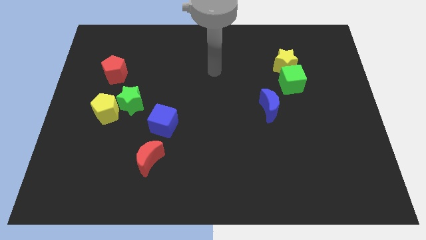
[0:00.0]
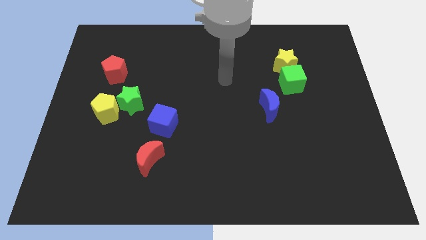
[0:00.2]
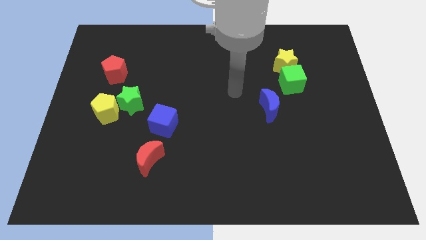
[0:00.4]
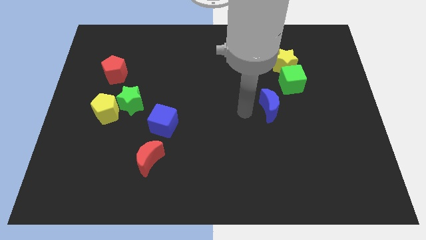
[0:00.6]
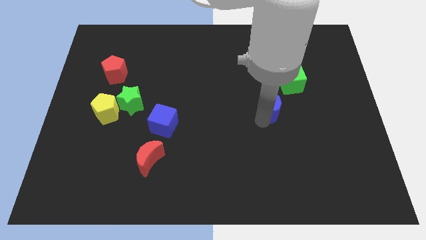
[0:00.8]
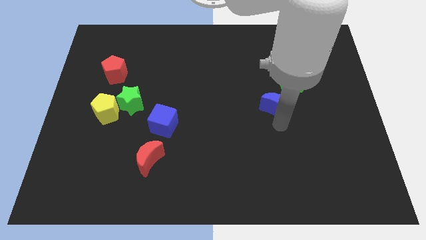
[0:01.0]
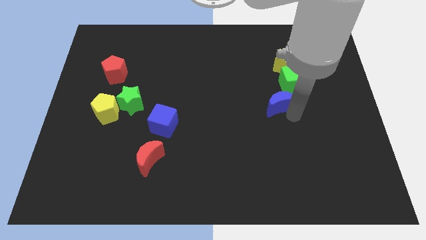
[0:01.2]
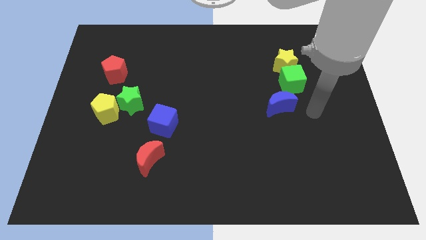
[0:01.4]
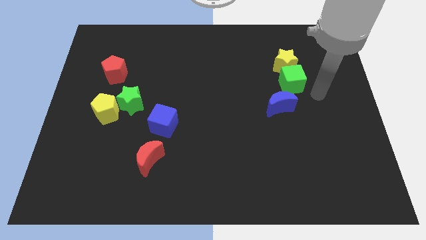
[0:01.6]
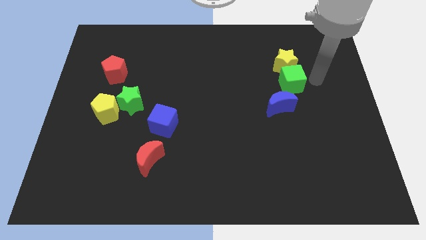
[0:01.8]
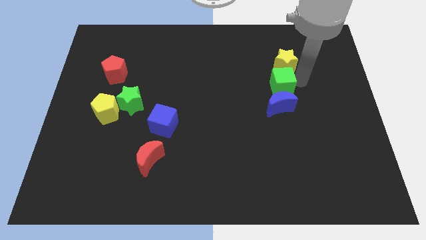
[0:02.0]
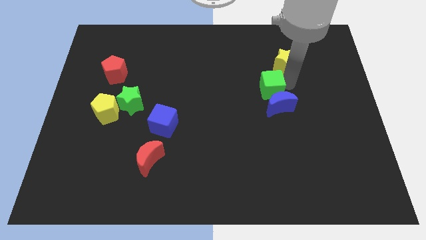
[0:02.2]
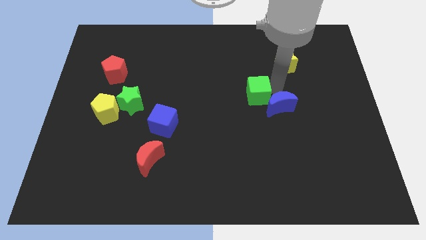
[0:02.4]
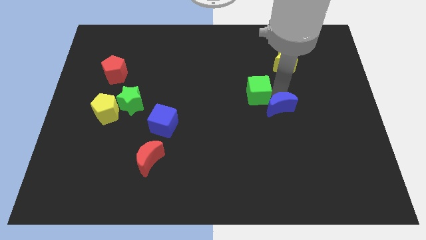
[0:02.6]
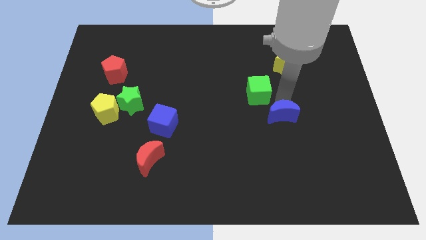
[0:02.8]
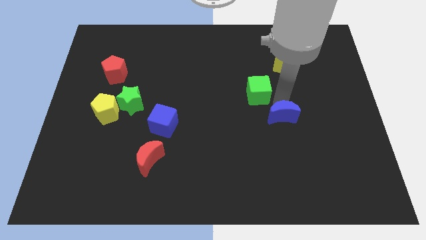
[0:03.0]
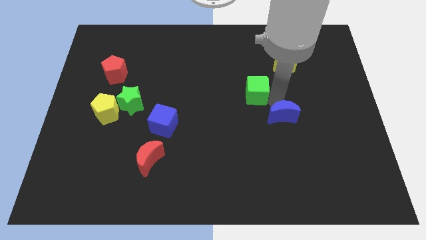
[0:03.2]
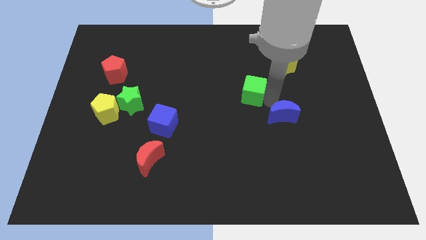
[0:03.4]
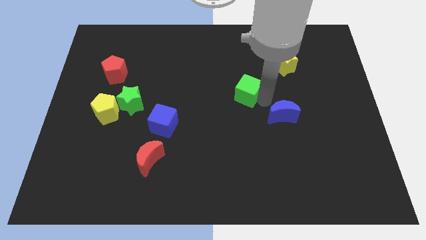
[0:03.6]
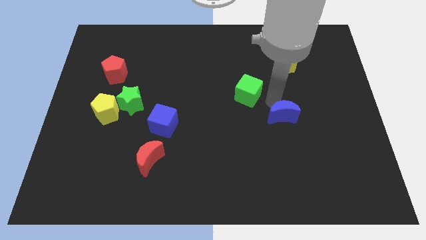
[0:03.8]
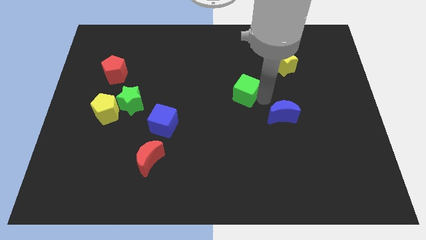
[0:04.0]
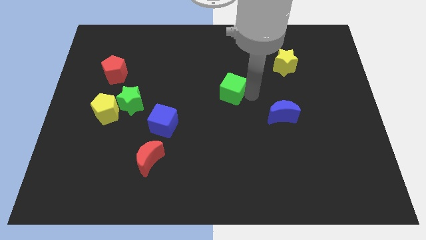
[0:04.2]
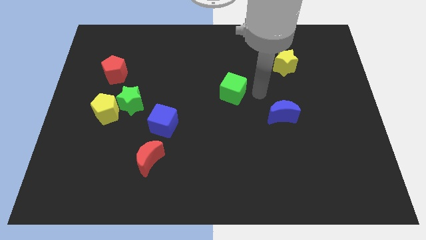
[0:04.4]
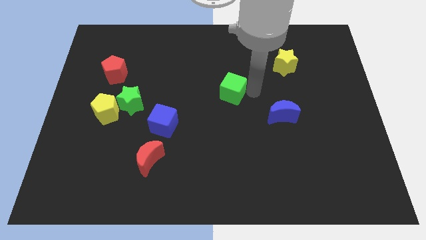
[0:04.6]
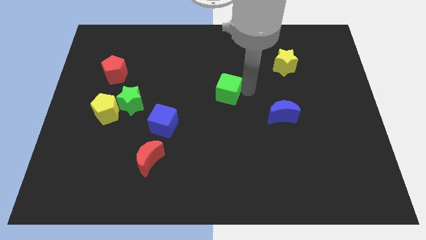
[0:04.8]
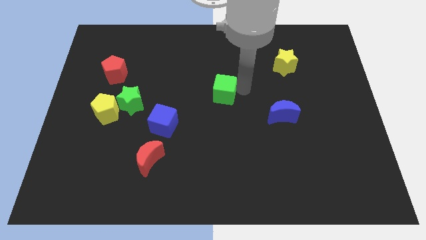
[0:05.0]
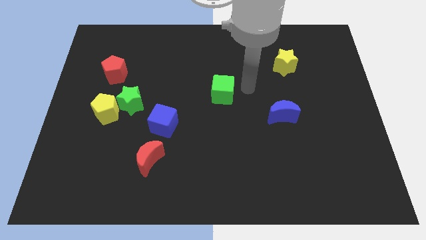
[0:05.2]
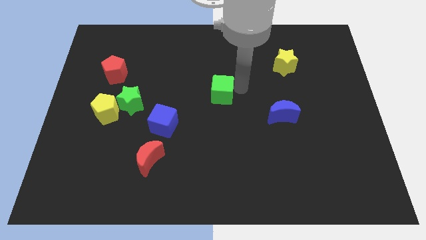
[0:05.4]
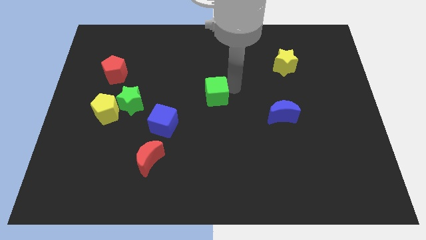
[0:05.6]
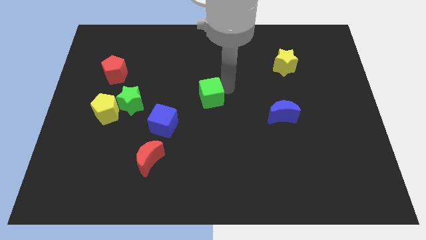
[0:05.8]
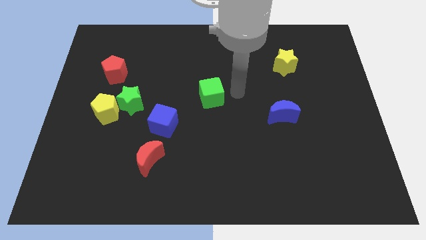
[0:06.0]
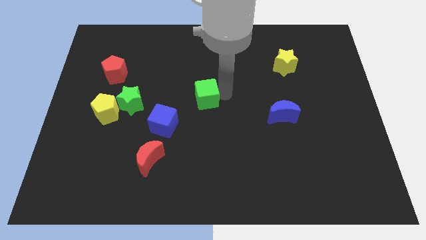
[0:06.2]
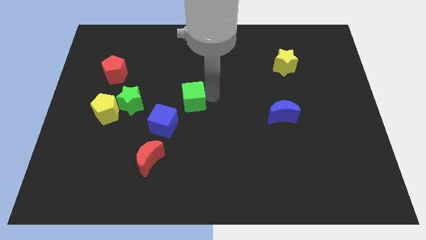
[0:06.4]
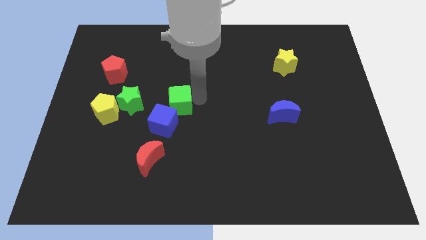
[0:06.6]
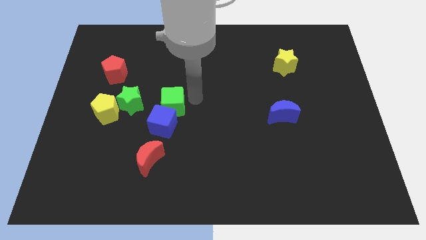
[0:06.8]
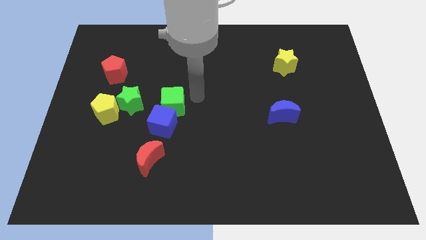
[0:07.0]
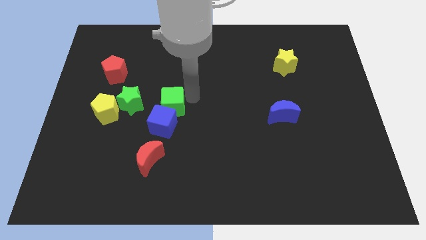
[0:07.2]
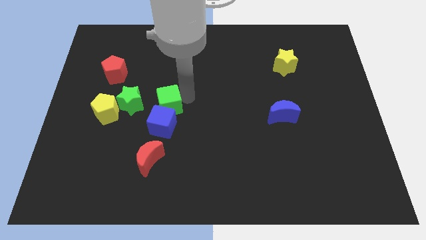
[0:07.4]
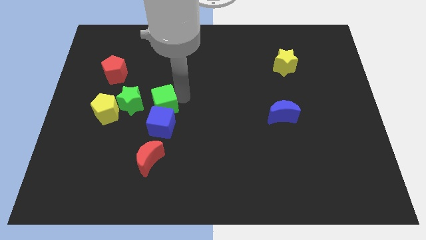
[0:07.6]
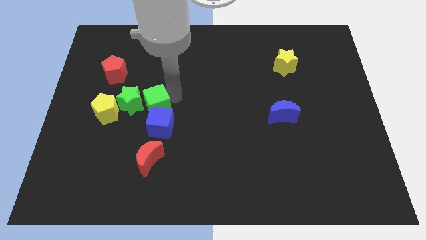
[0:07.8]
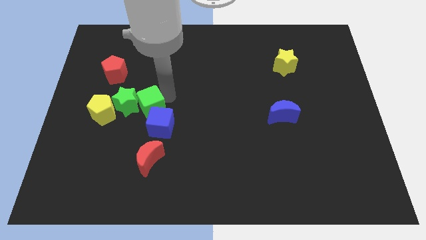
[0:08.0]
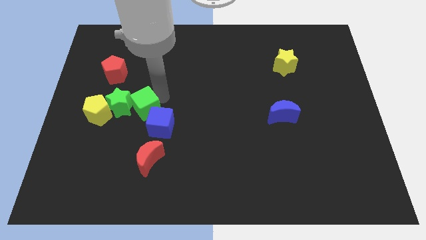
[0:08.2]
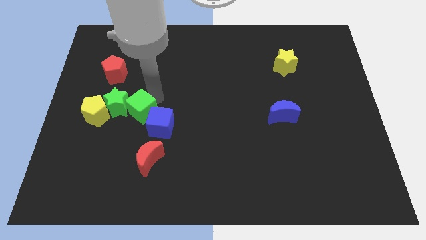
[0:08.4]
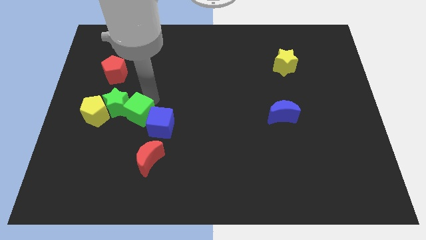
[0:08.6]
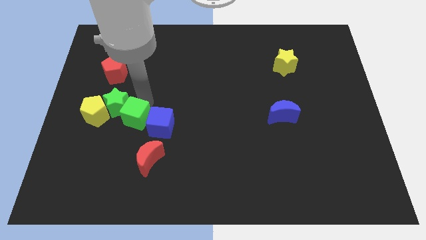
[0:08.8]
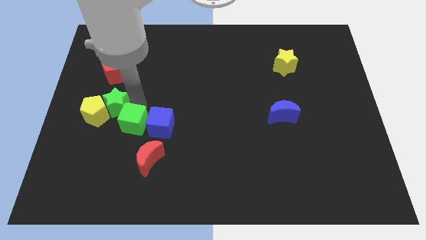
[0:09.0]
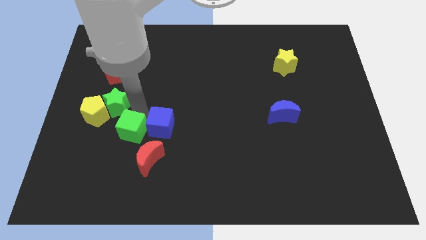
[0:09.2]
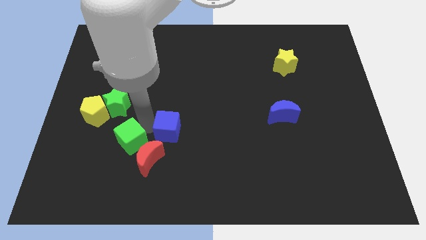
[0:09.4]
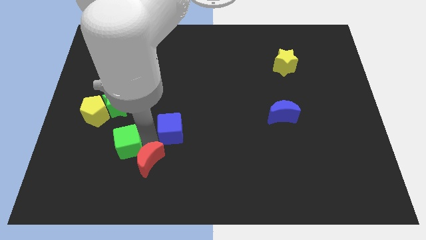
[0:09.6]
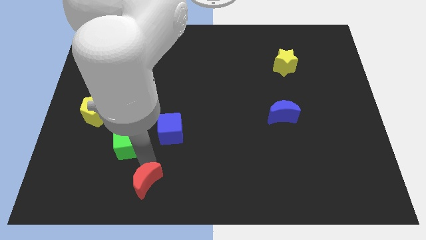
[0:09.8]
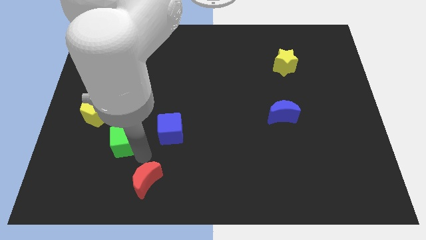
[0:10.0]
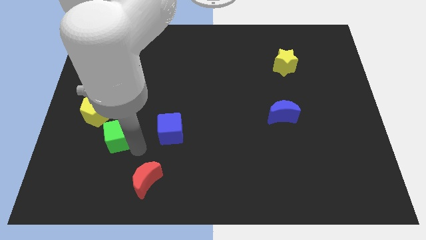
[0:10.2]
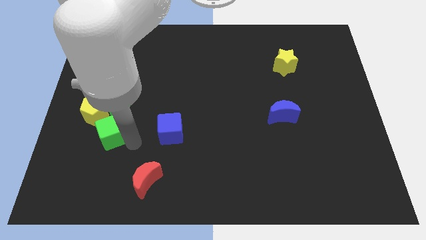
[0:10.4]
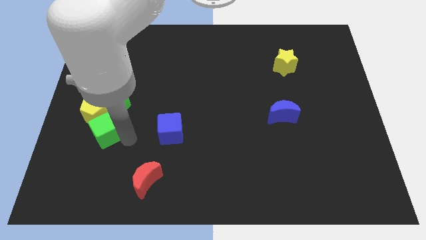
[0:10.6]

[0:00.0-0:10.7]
move the green cube close to the yellow pentagon

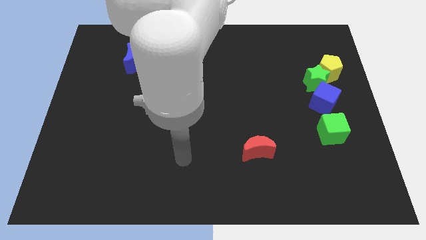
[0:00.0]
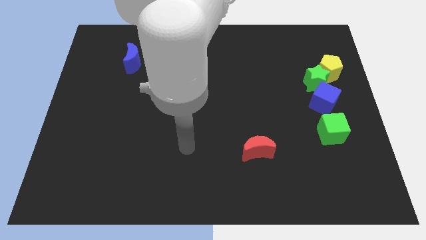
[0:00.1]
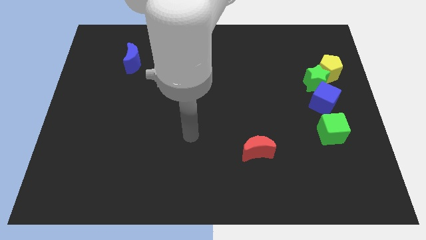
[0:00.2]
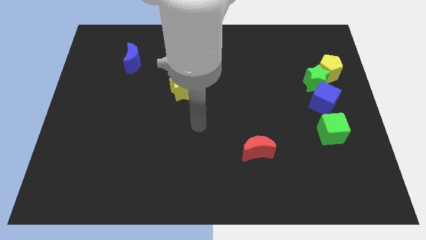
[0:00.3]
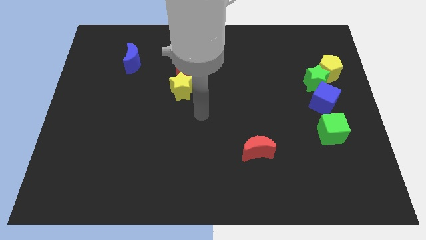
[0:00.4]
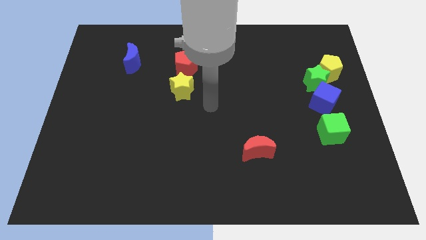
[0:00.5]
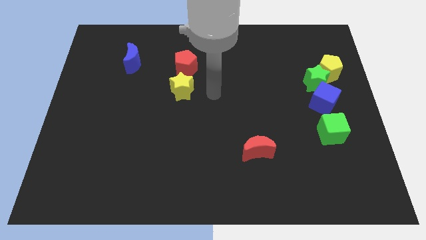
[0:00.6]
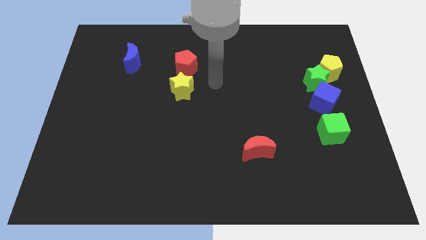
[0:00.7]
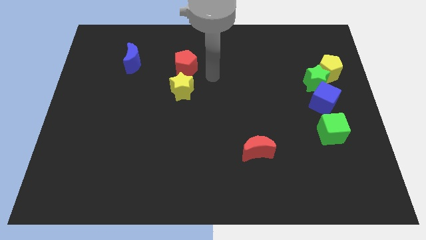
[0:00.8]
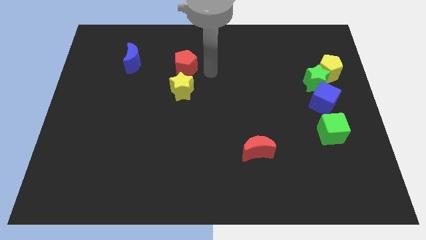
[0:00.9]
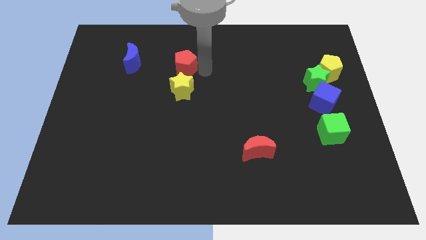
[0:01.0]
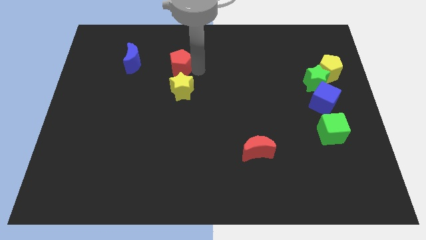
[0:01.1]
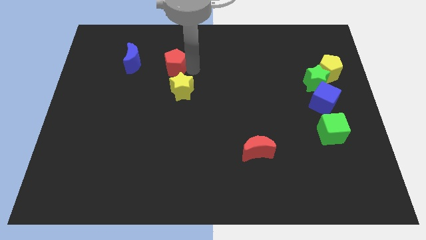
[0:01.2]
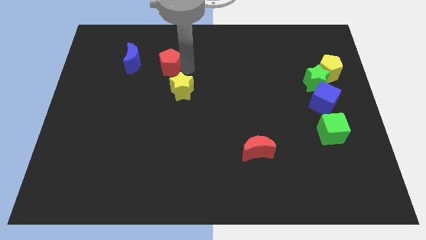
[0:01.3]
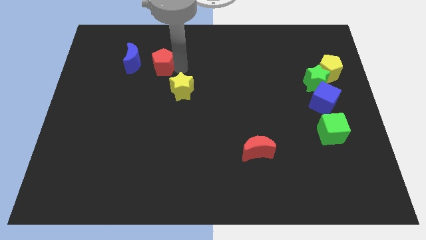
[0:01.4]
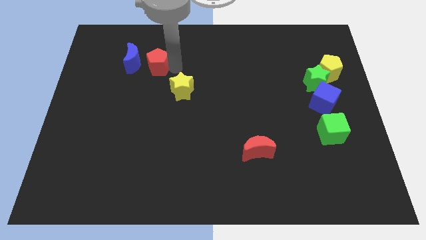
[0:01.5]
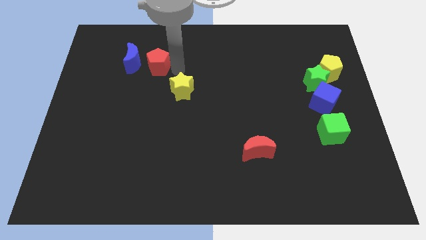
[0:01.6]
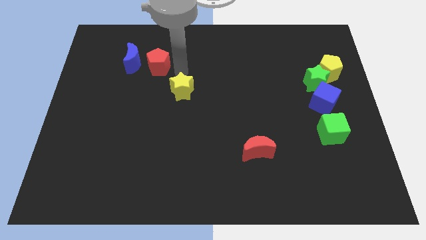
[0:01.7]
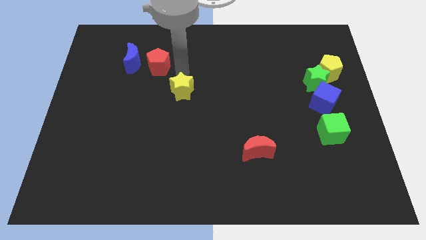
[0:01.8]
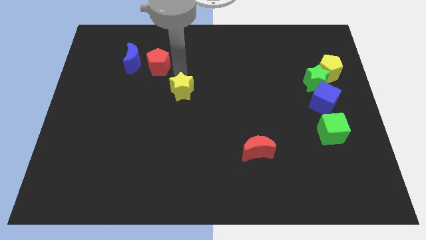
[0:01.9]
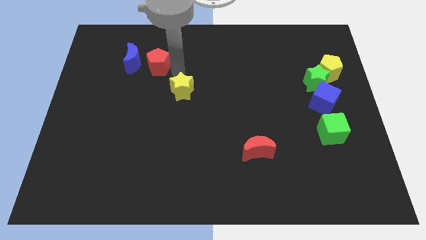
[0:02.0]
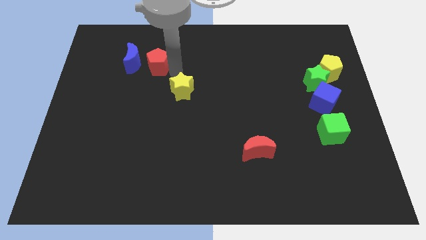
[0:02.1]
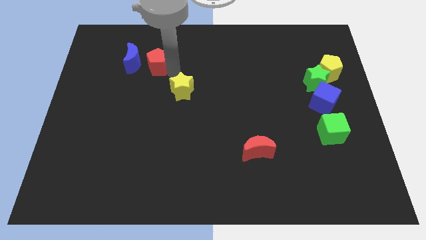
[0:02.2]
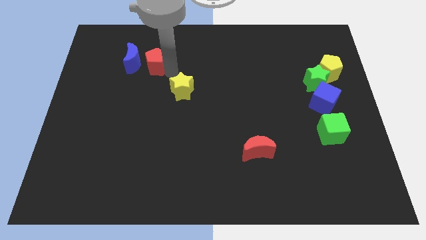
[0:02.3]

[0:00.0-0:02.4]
push the red pentagon next to the blue moon
